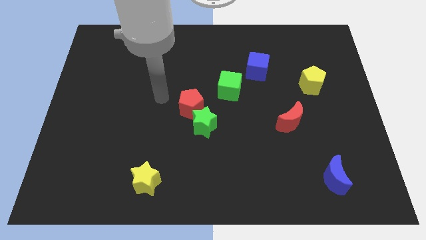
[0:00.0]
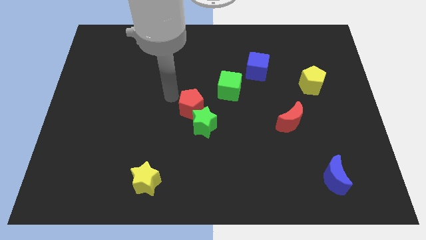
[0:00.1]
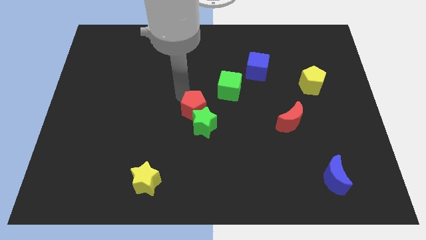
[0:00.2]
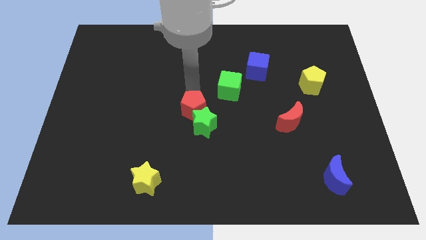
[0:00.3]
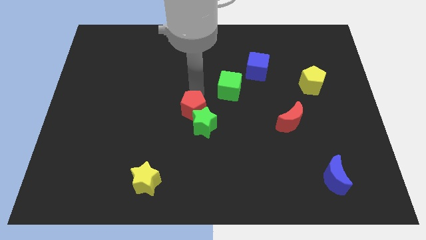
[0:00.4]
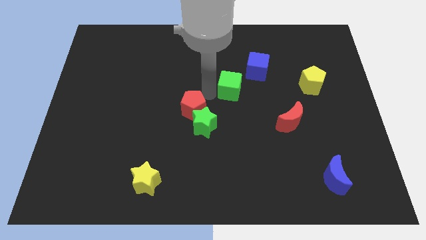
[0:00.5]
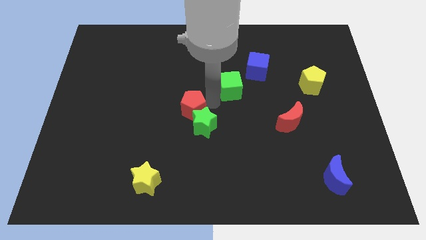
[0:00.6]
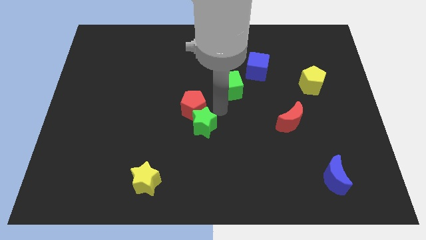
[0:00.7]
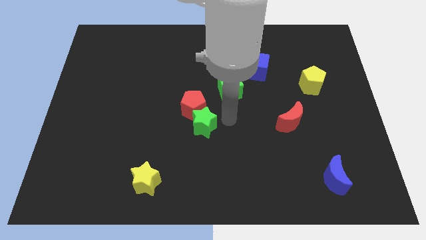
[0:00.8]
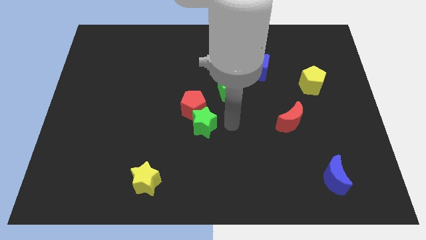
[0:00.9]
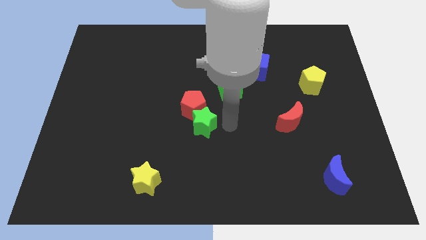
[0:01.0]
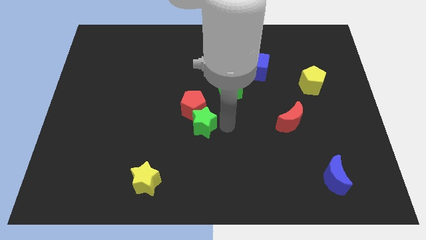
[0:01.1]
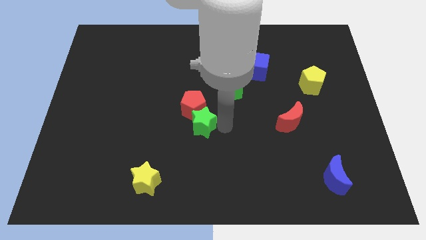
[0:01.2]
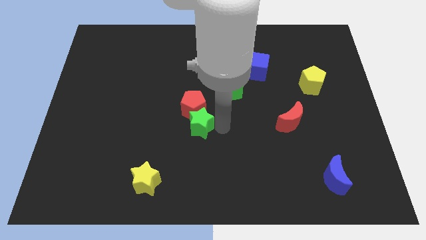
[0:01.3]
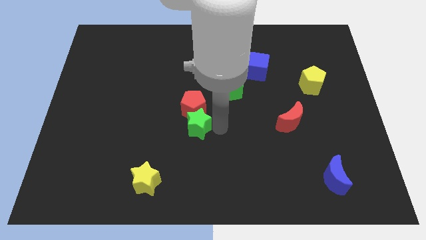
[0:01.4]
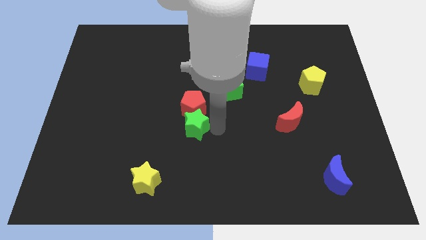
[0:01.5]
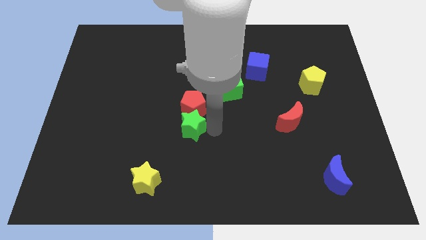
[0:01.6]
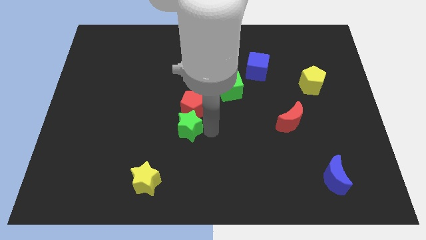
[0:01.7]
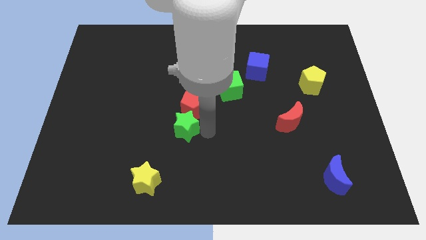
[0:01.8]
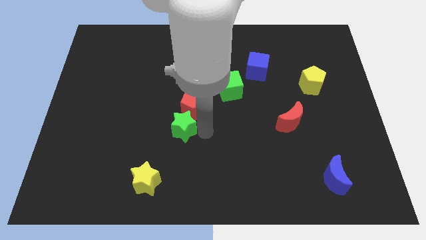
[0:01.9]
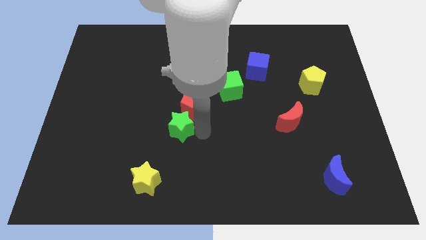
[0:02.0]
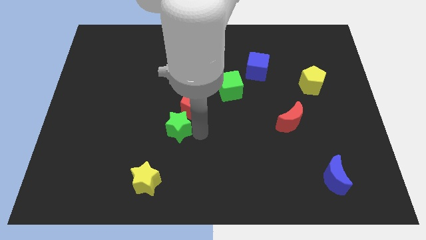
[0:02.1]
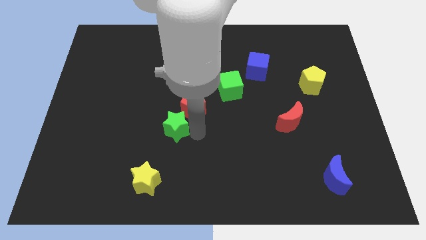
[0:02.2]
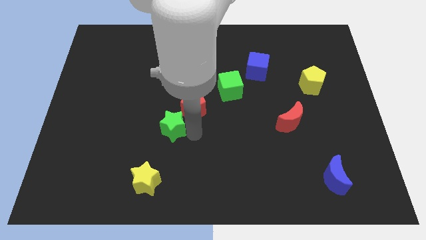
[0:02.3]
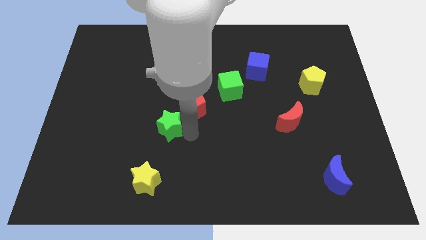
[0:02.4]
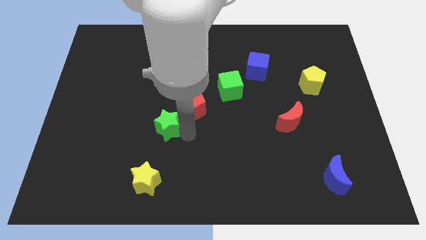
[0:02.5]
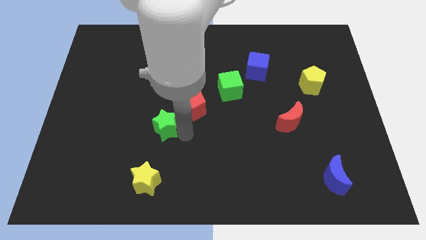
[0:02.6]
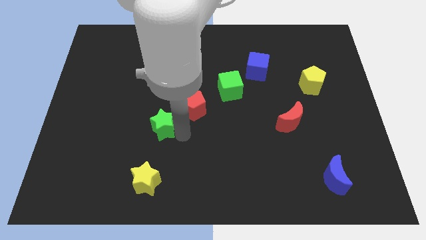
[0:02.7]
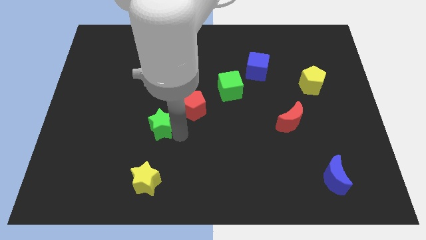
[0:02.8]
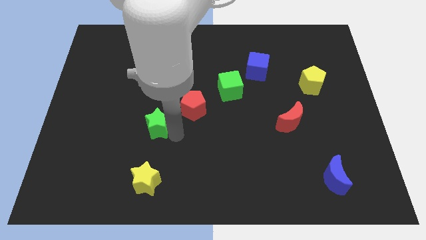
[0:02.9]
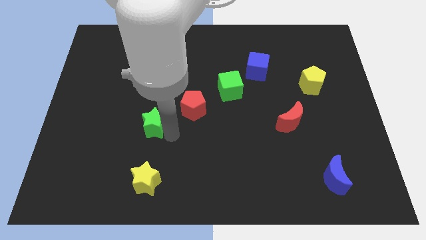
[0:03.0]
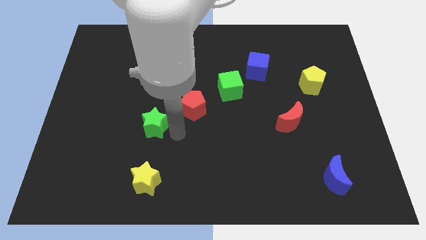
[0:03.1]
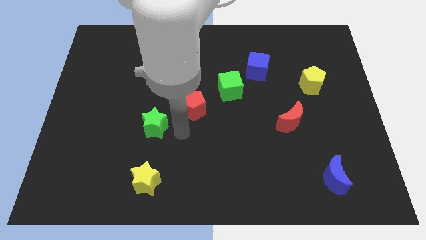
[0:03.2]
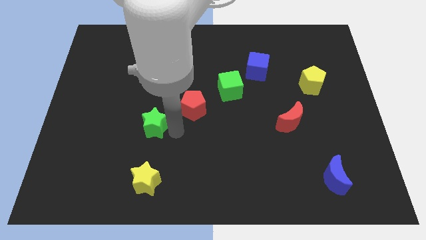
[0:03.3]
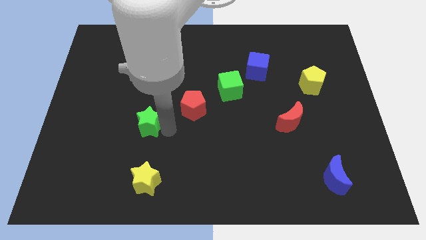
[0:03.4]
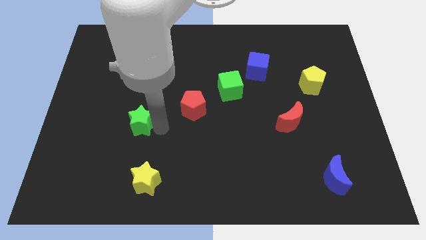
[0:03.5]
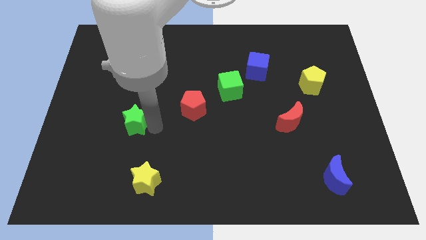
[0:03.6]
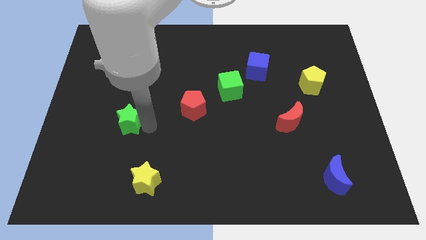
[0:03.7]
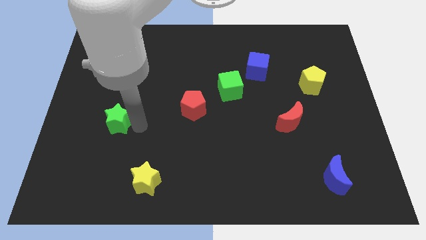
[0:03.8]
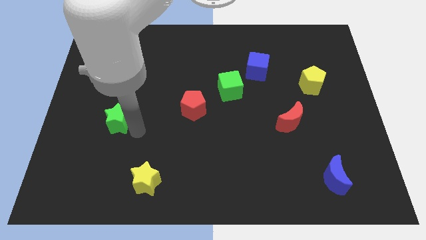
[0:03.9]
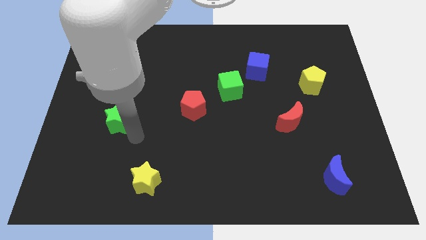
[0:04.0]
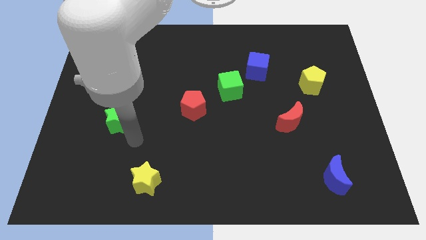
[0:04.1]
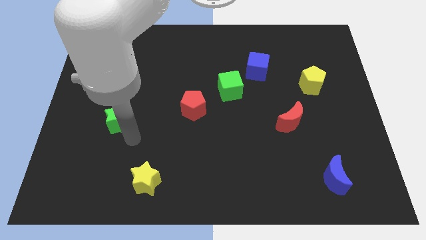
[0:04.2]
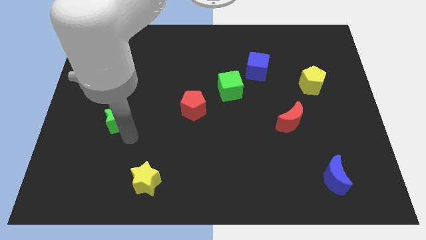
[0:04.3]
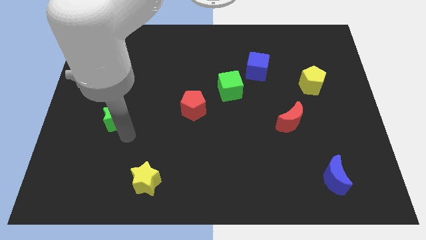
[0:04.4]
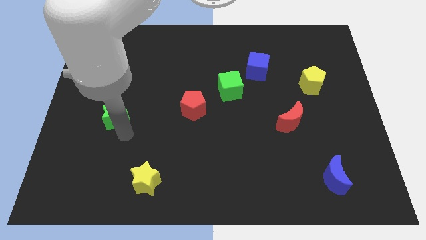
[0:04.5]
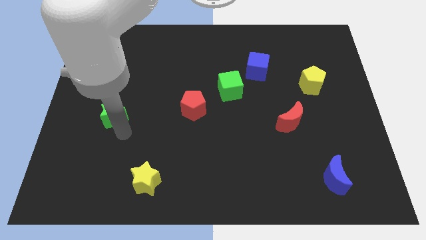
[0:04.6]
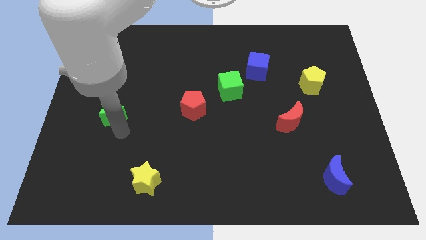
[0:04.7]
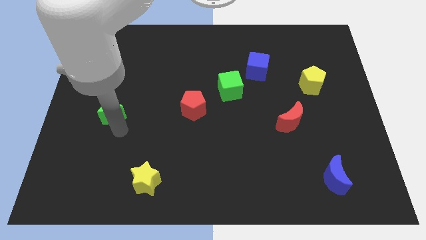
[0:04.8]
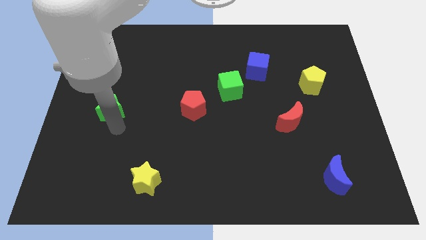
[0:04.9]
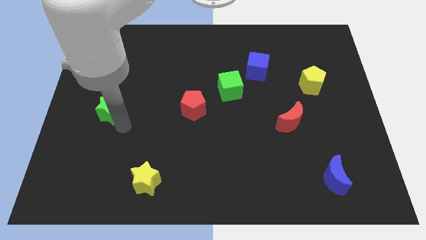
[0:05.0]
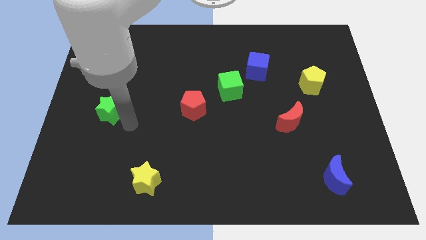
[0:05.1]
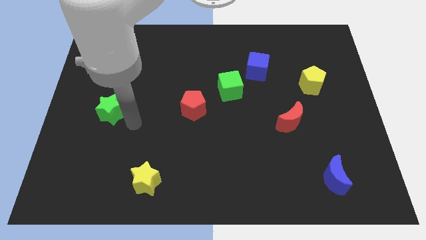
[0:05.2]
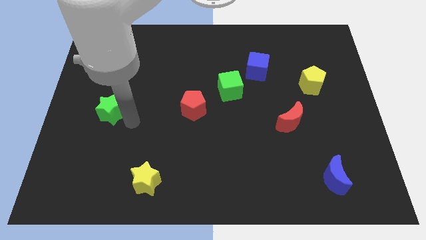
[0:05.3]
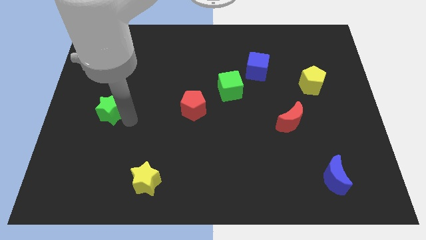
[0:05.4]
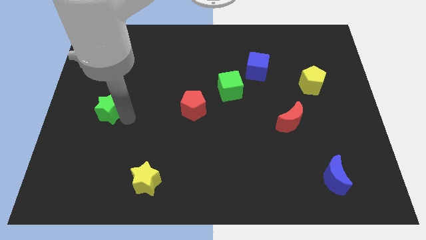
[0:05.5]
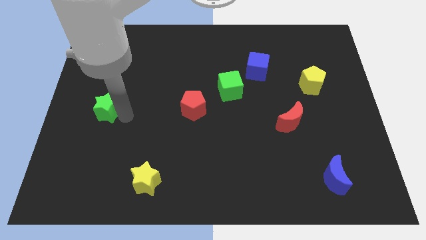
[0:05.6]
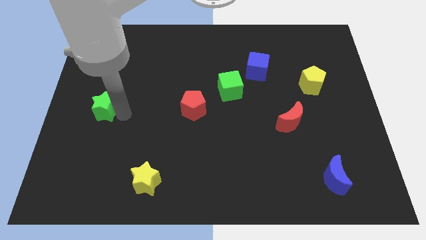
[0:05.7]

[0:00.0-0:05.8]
put the green star to the left side
